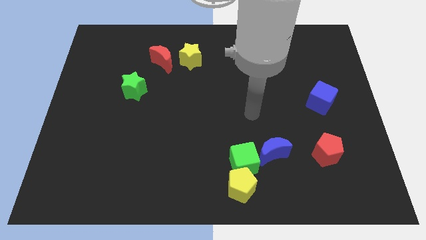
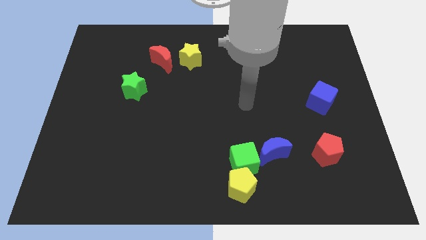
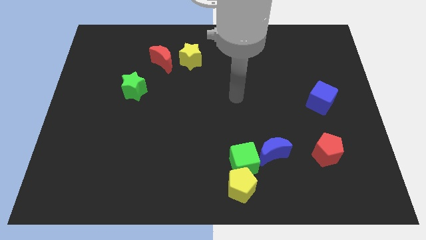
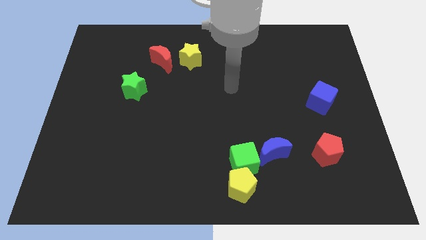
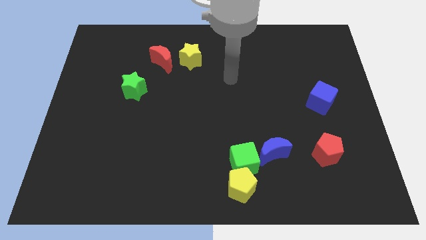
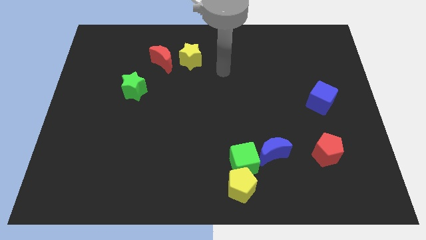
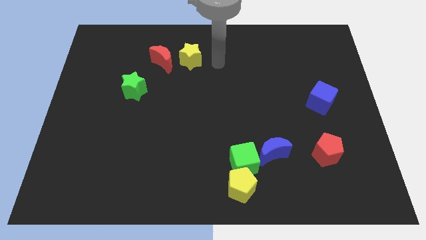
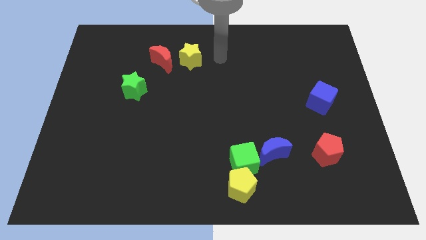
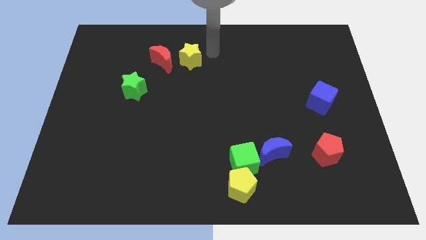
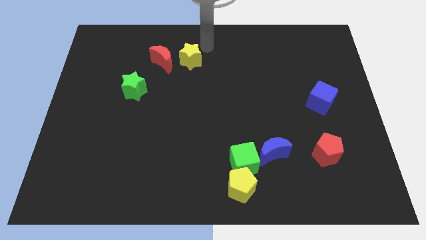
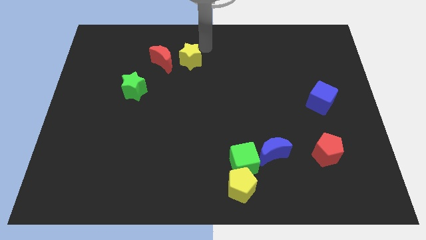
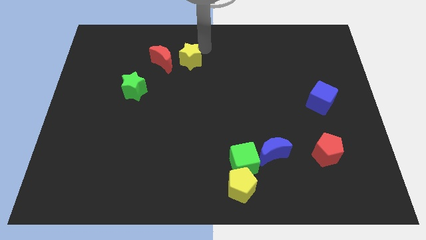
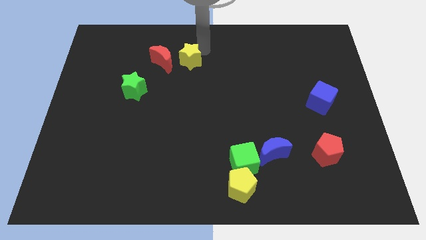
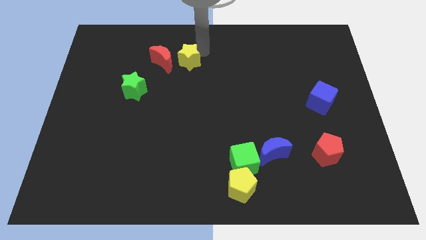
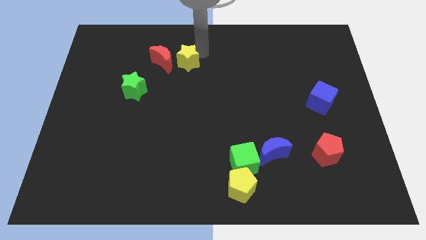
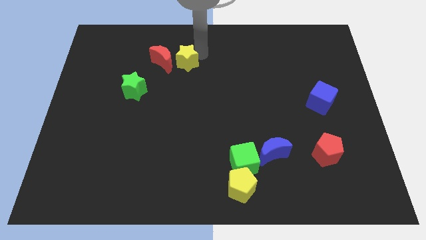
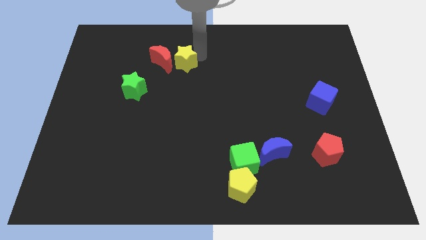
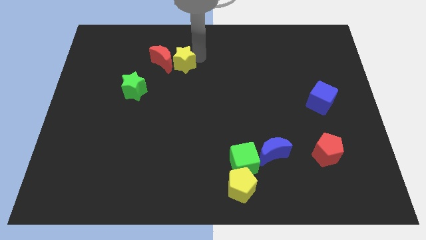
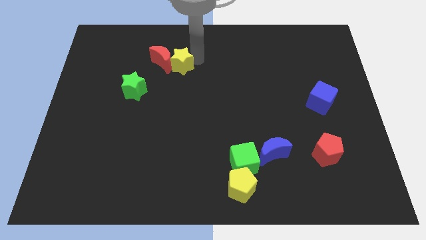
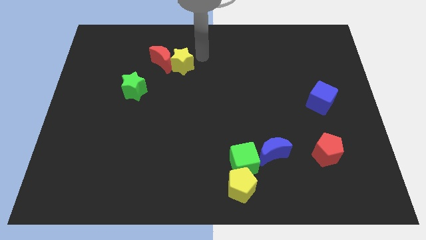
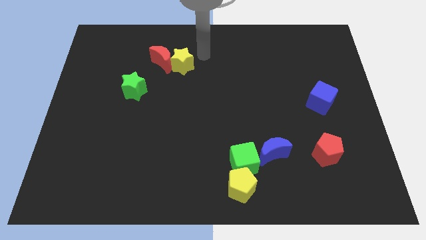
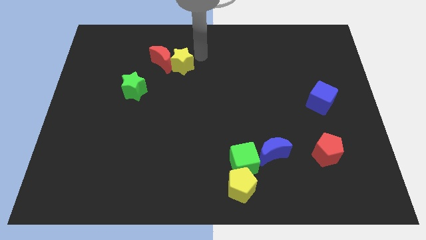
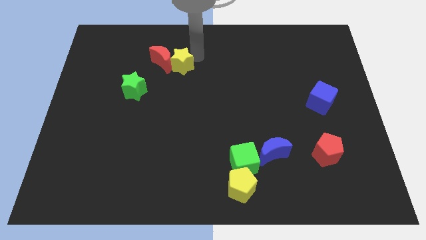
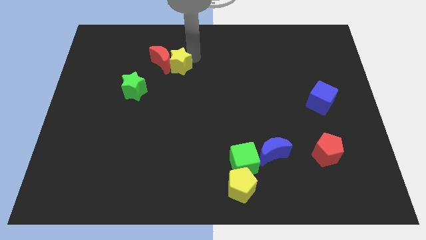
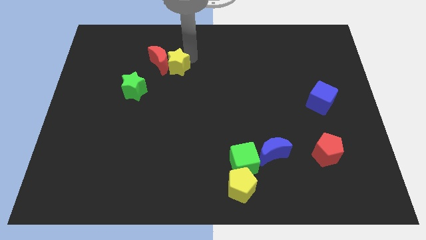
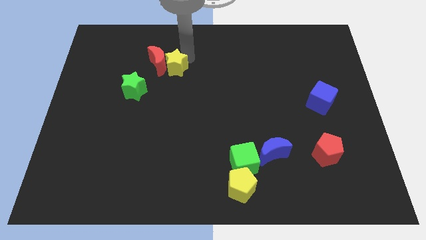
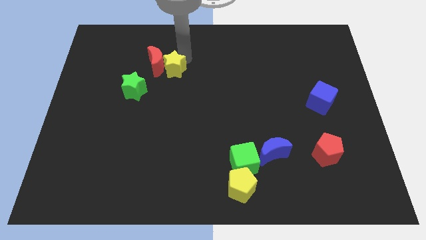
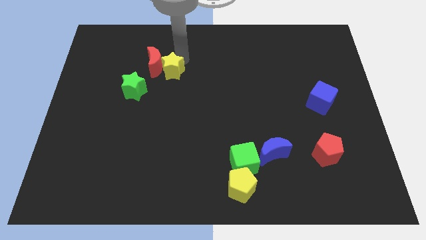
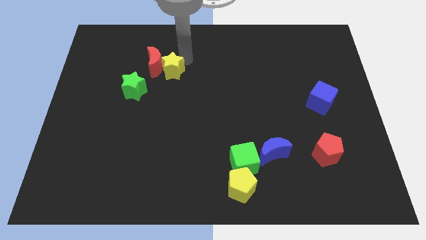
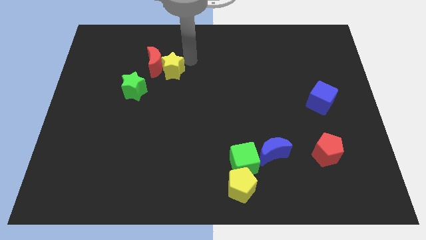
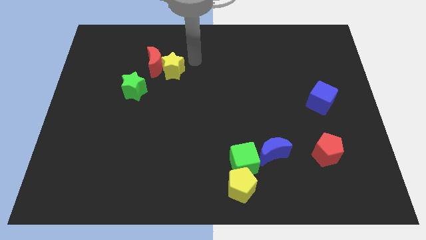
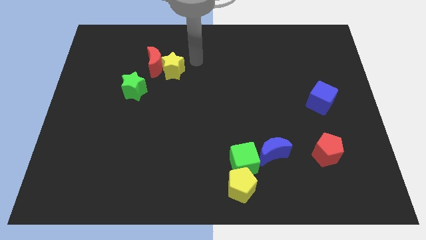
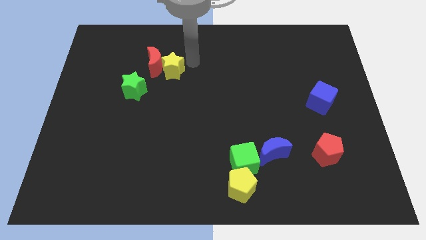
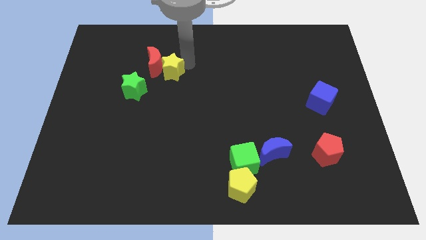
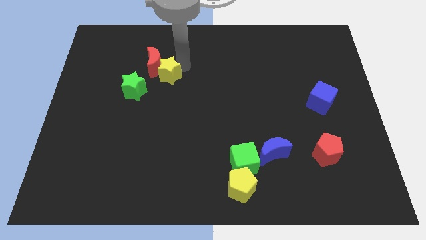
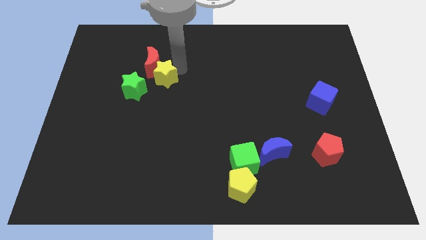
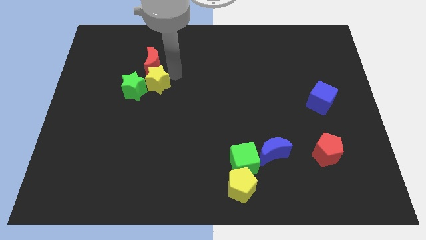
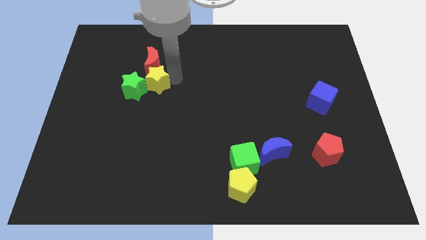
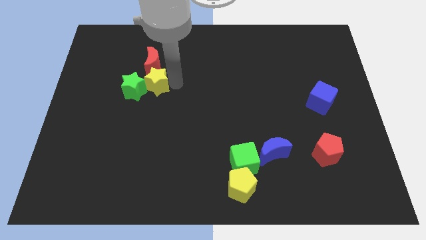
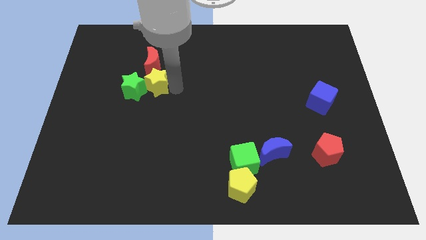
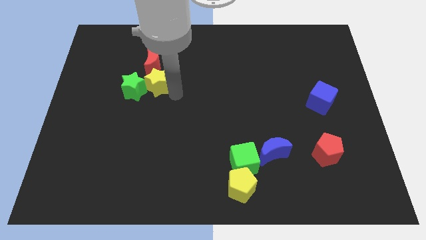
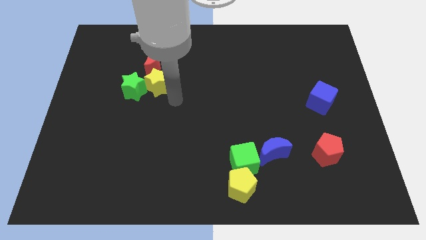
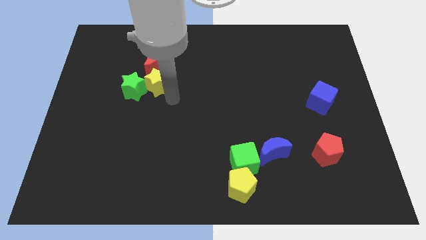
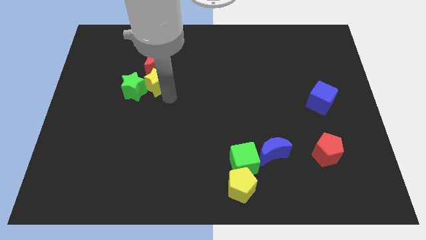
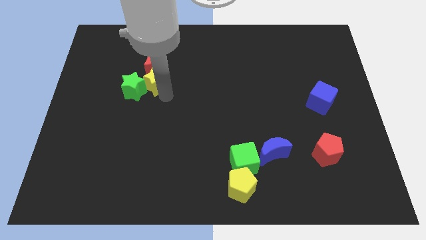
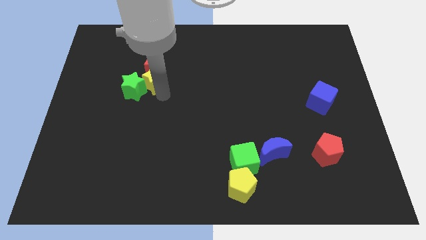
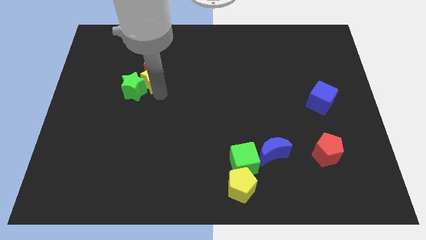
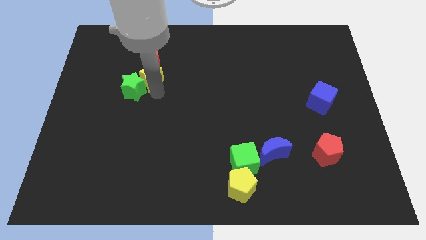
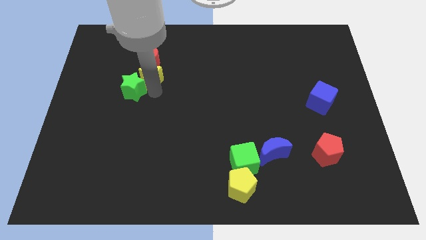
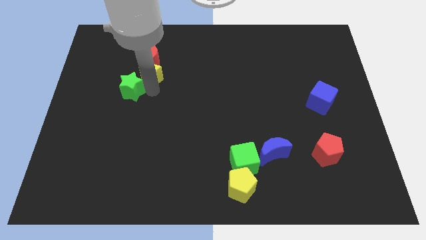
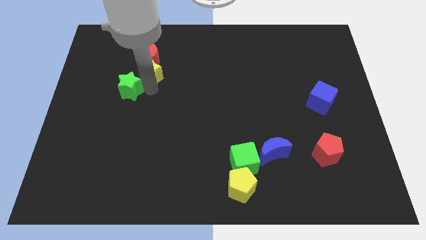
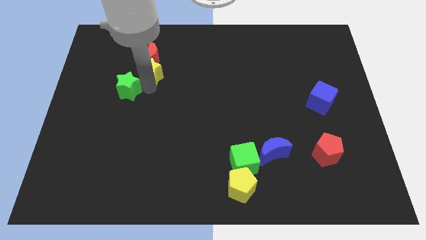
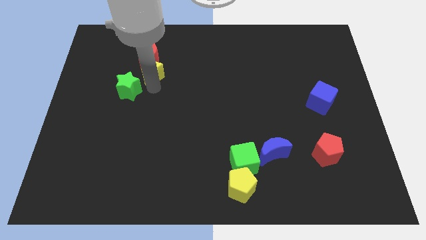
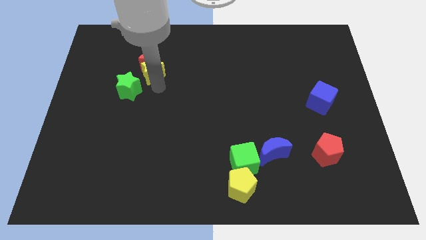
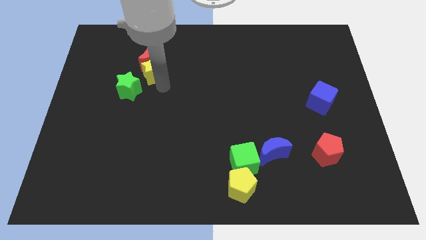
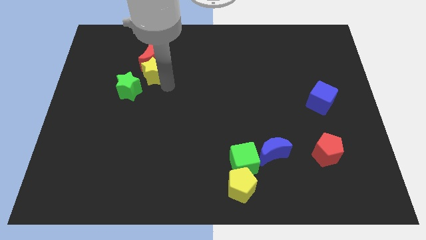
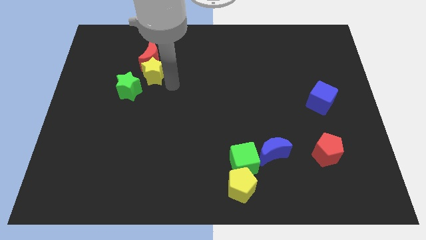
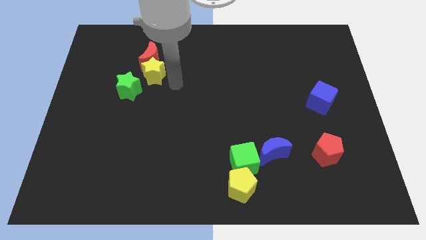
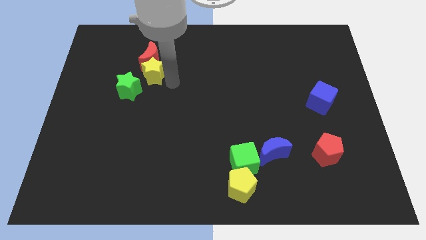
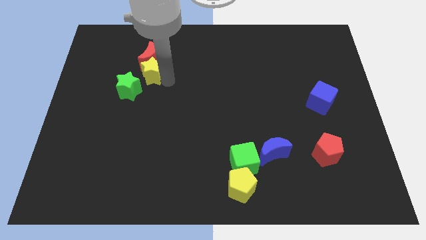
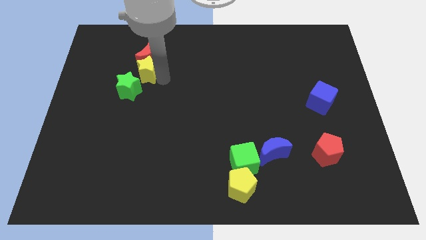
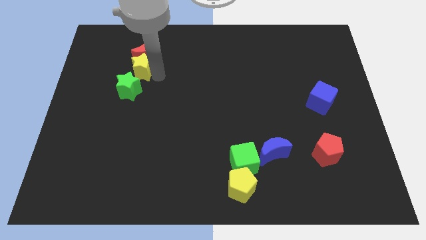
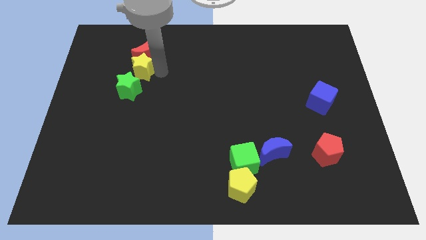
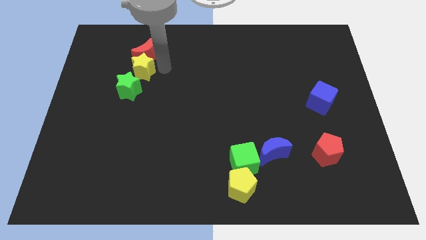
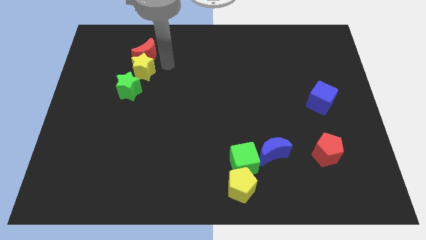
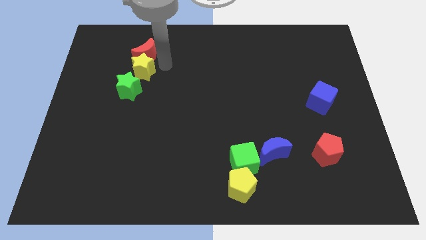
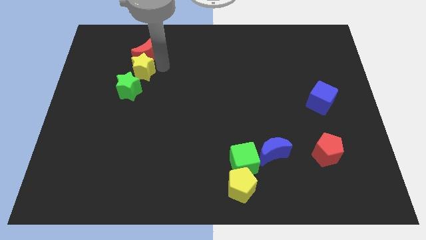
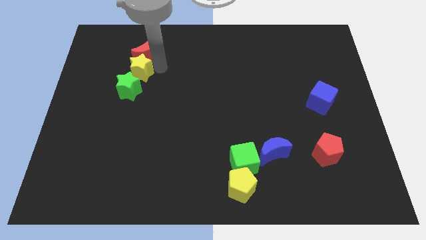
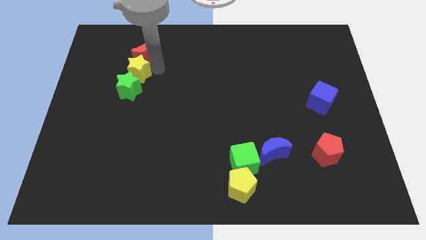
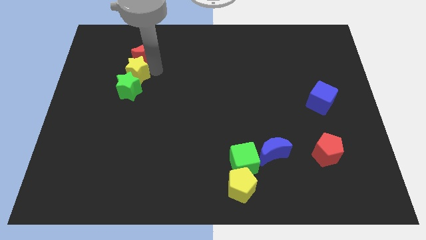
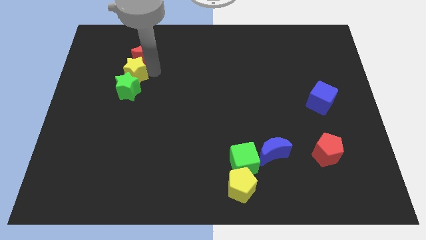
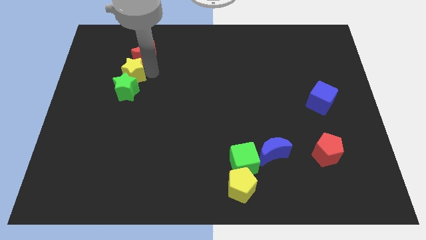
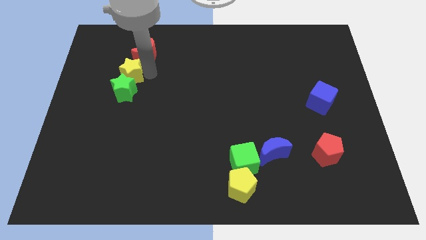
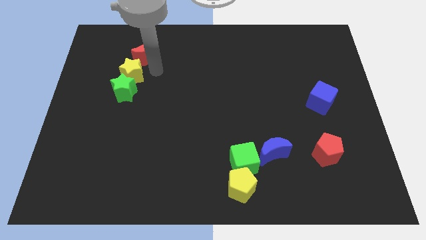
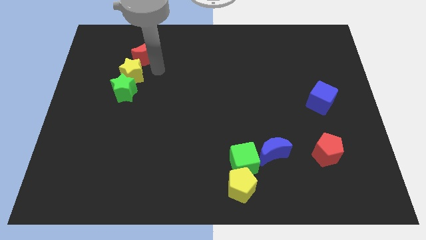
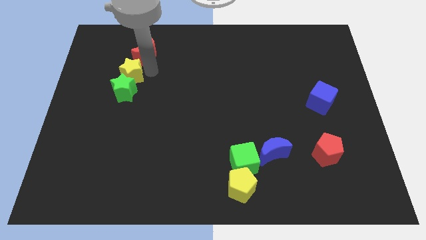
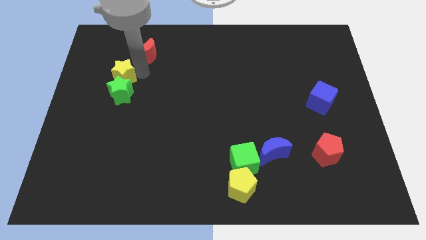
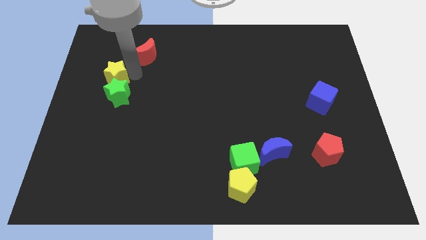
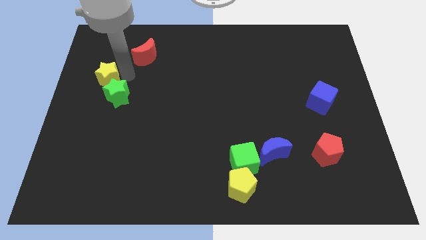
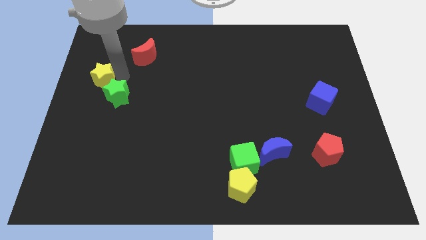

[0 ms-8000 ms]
move the yellow star to the left side
